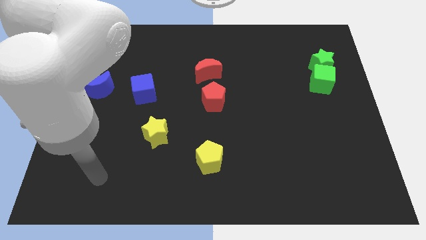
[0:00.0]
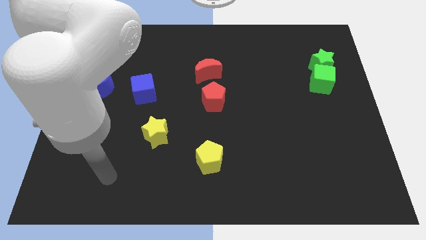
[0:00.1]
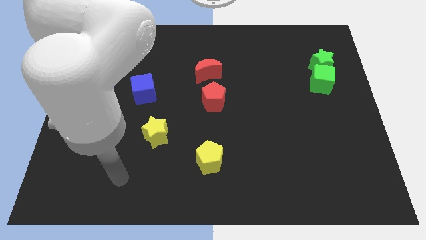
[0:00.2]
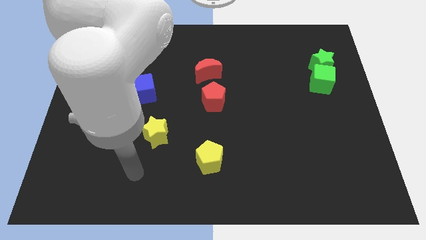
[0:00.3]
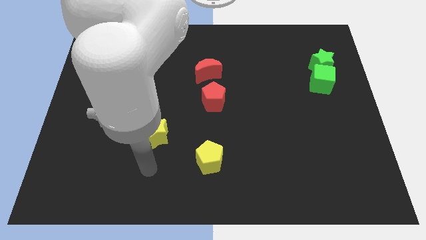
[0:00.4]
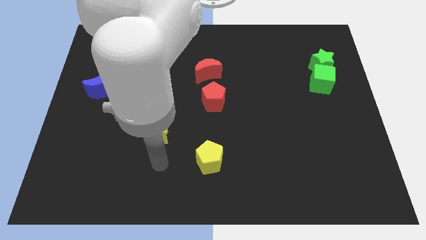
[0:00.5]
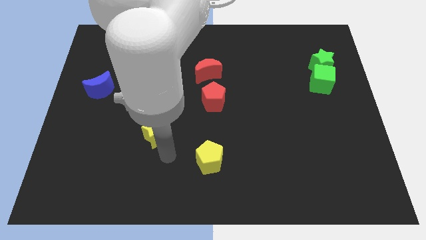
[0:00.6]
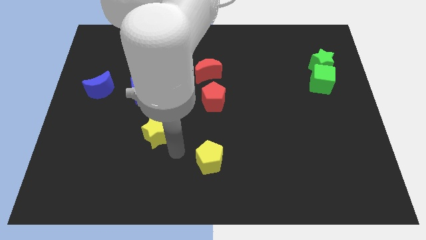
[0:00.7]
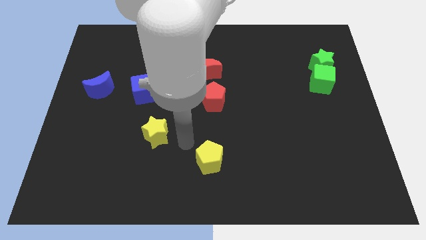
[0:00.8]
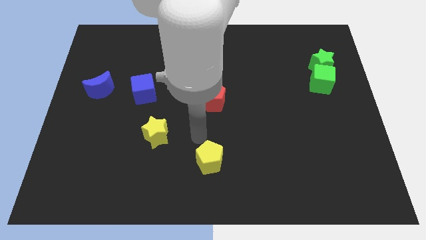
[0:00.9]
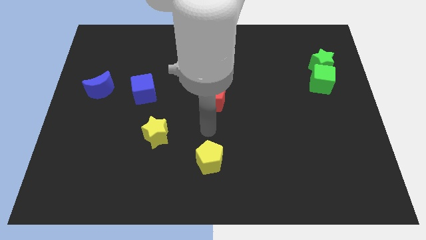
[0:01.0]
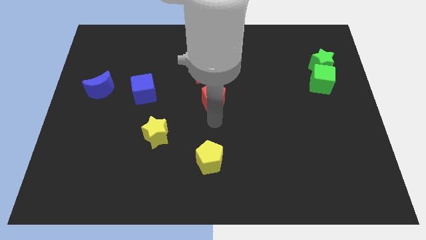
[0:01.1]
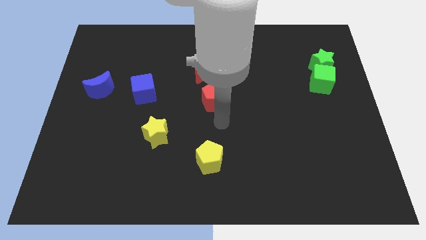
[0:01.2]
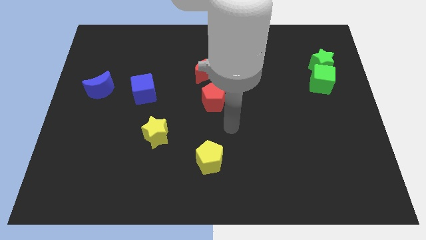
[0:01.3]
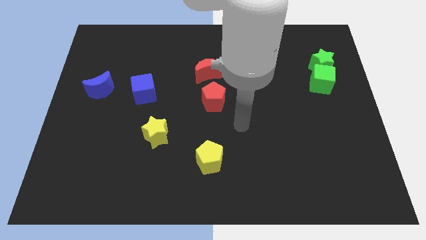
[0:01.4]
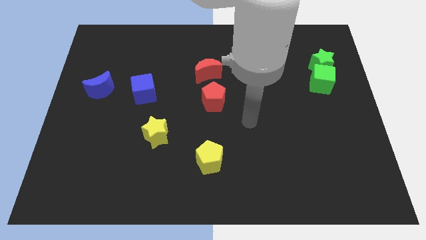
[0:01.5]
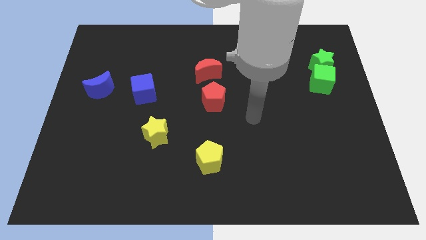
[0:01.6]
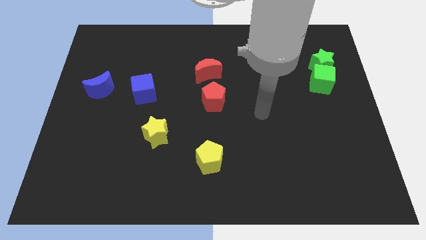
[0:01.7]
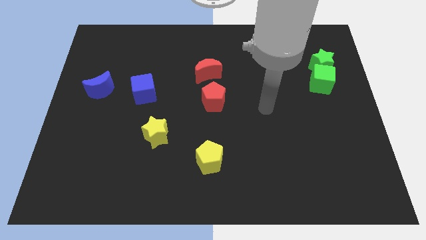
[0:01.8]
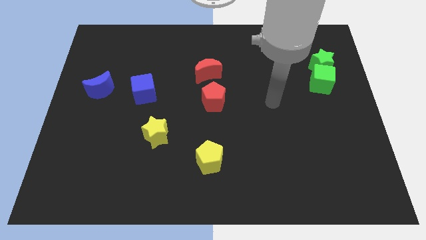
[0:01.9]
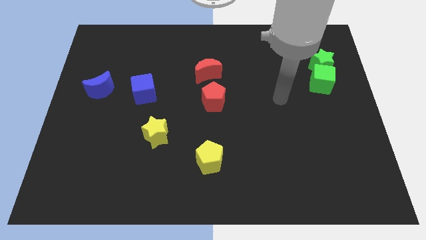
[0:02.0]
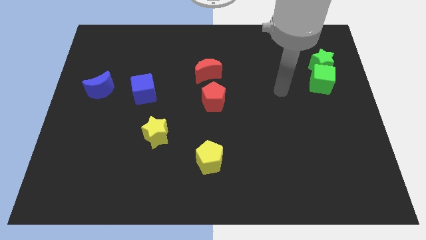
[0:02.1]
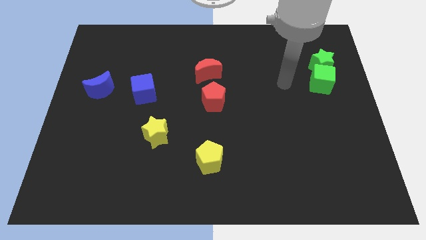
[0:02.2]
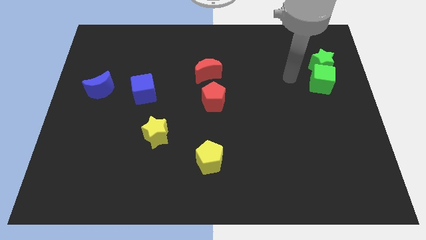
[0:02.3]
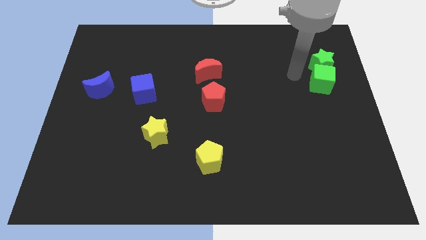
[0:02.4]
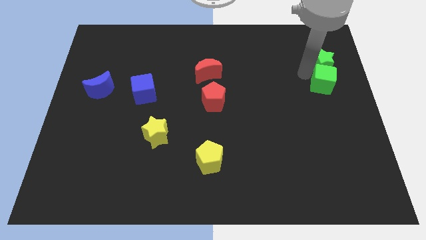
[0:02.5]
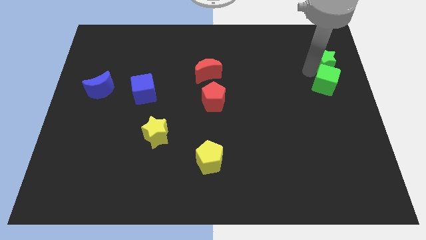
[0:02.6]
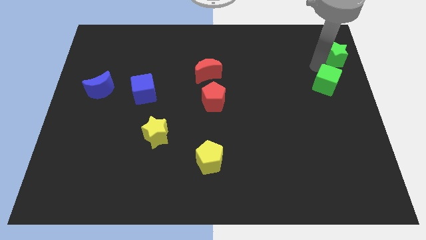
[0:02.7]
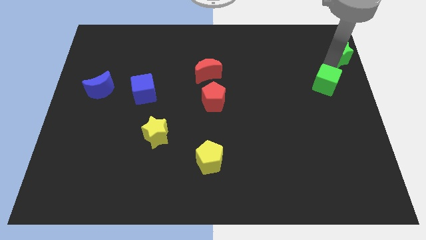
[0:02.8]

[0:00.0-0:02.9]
move the green cube away from the green star

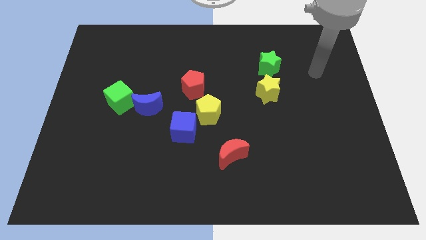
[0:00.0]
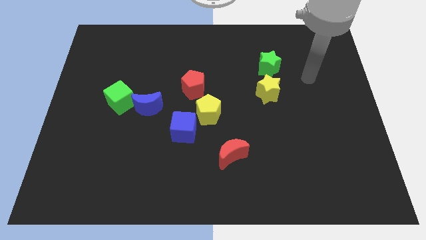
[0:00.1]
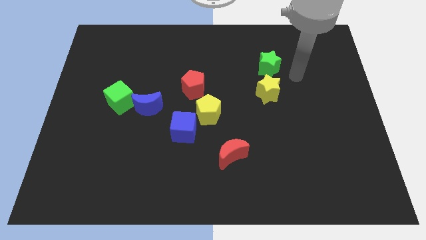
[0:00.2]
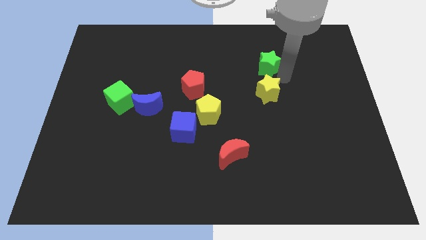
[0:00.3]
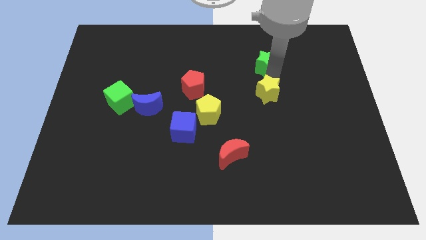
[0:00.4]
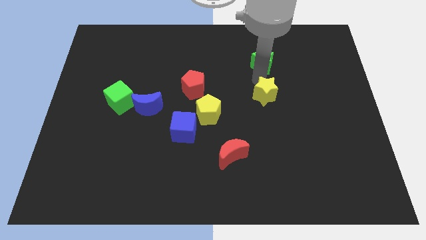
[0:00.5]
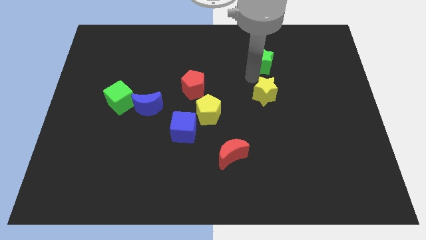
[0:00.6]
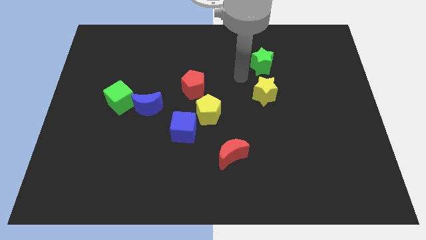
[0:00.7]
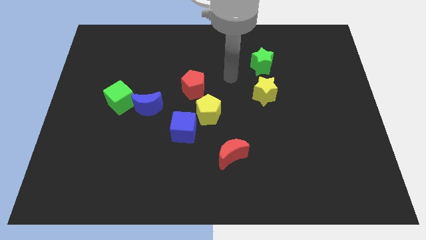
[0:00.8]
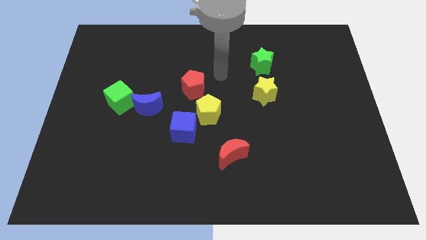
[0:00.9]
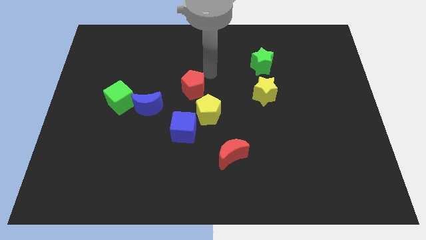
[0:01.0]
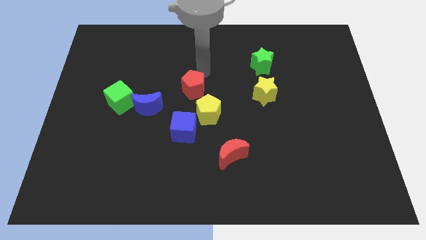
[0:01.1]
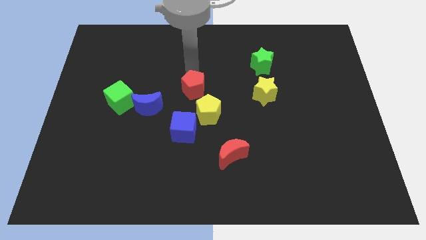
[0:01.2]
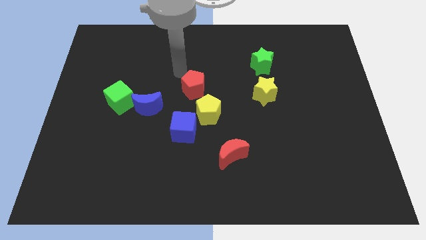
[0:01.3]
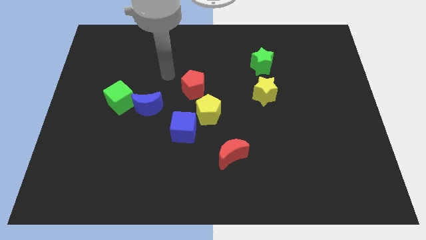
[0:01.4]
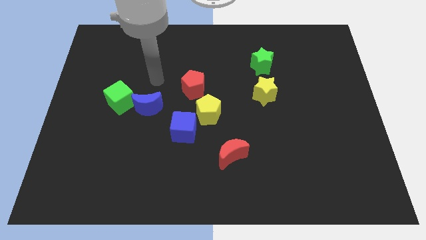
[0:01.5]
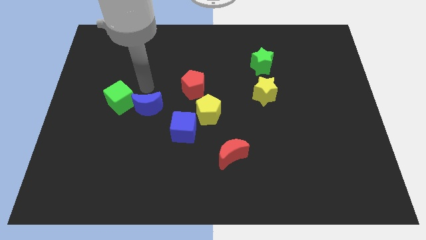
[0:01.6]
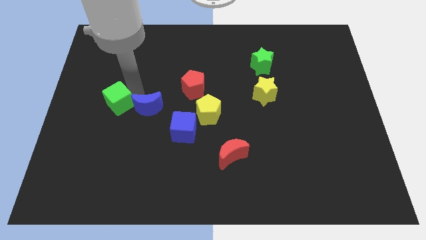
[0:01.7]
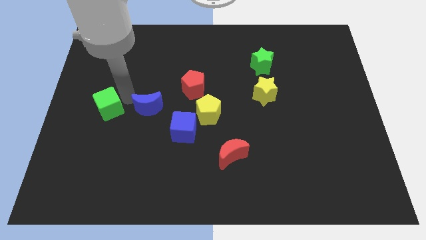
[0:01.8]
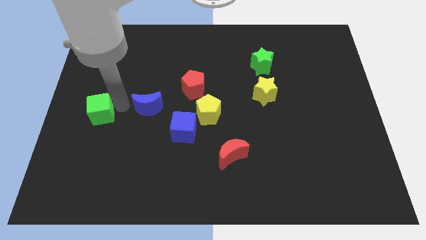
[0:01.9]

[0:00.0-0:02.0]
move the blue moon away from the green cube

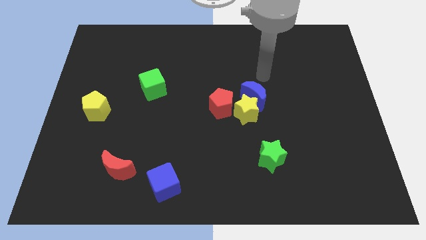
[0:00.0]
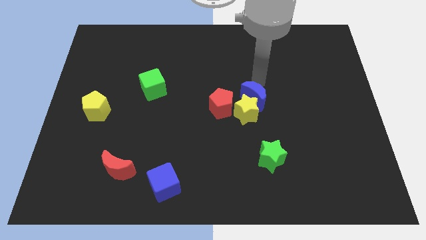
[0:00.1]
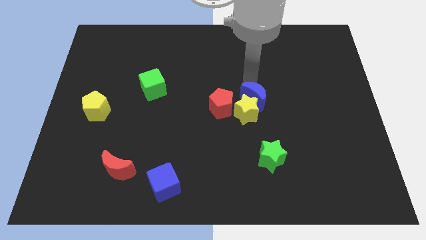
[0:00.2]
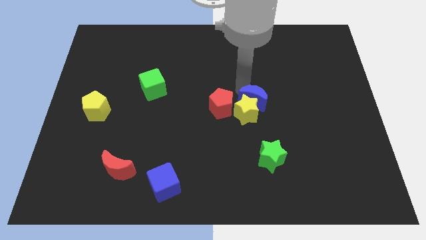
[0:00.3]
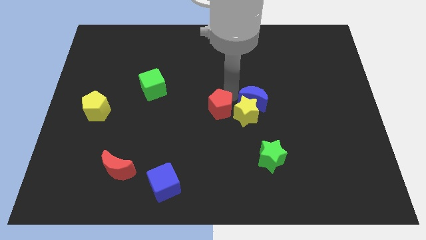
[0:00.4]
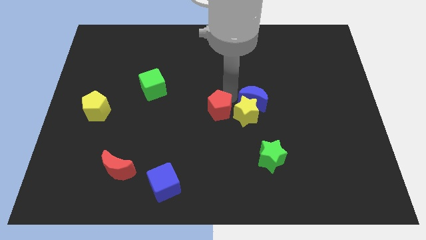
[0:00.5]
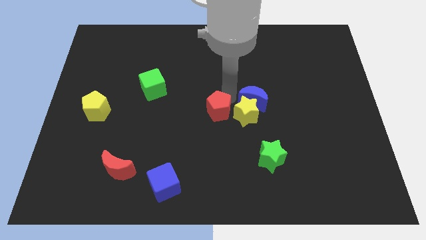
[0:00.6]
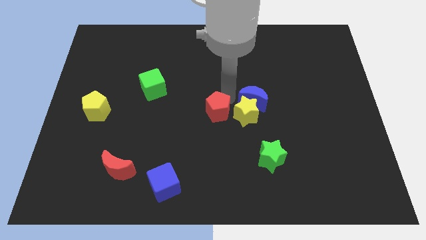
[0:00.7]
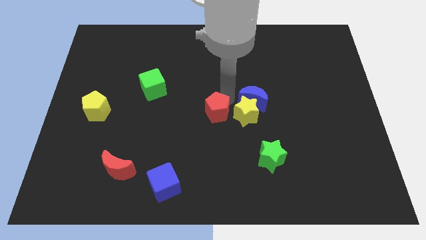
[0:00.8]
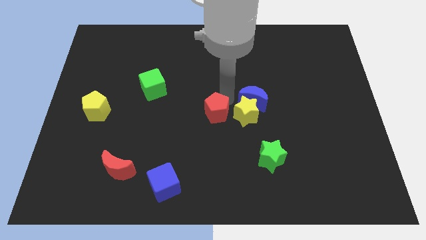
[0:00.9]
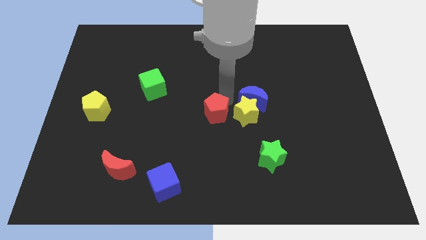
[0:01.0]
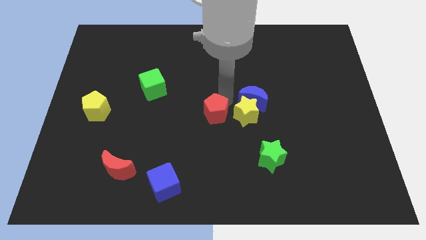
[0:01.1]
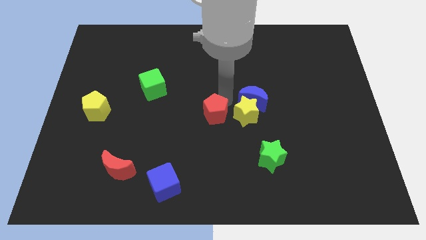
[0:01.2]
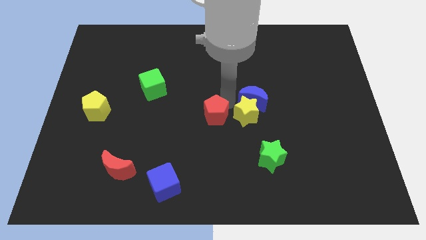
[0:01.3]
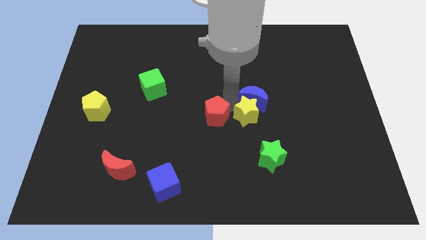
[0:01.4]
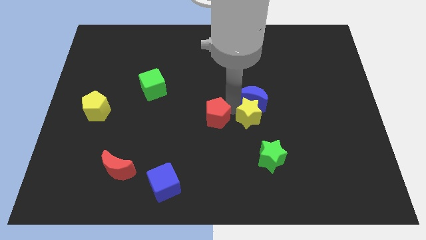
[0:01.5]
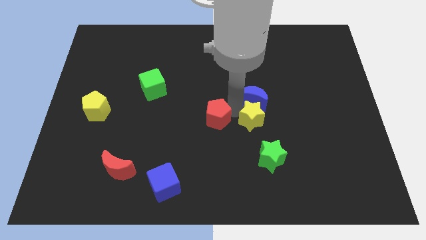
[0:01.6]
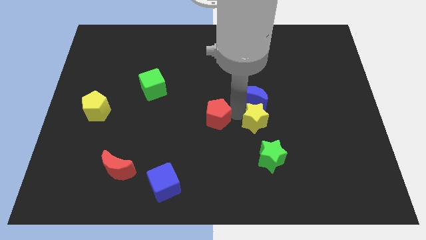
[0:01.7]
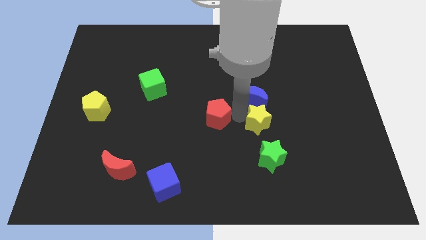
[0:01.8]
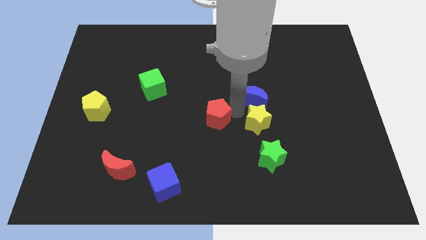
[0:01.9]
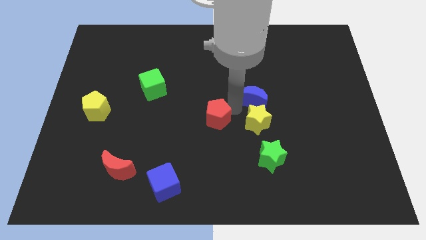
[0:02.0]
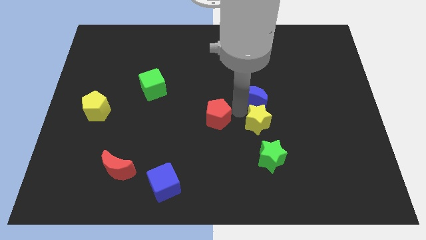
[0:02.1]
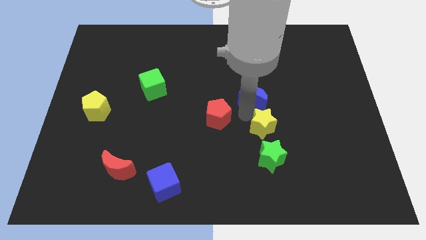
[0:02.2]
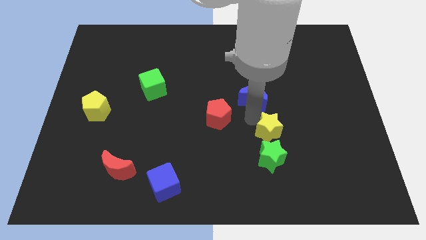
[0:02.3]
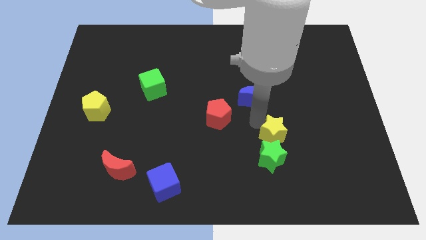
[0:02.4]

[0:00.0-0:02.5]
pull the yellow star apart from the blue moon and red pentagon

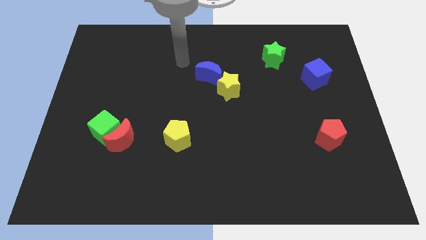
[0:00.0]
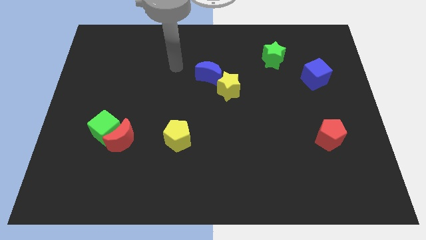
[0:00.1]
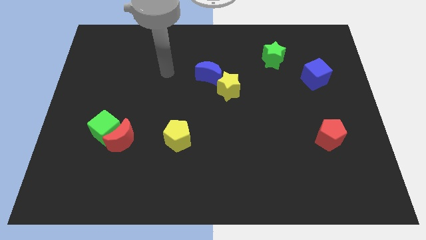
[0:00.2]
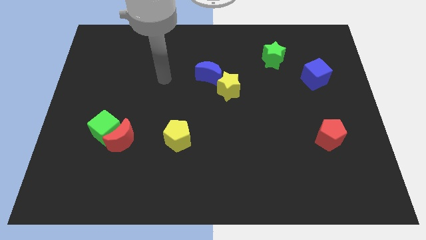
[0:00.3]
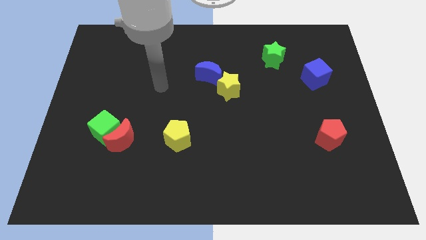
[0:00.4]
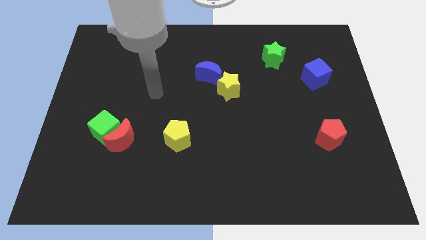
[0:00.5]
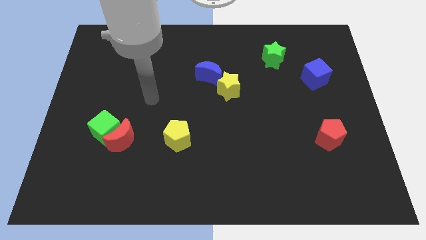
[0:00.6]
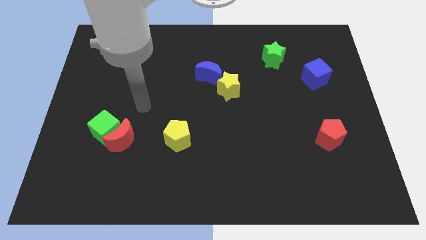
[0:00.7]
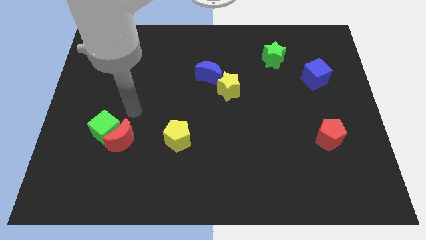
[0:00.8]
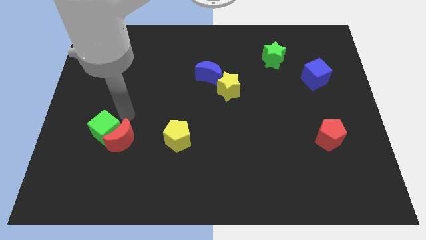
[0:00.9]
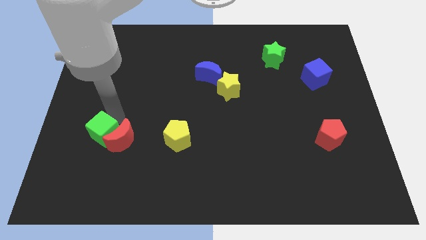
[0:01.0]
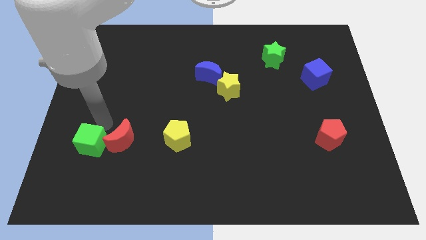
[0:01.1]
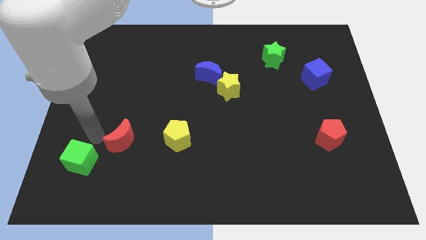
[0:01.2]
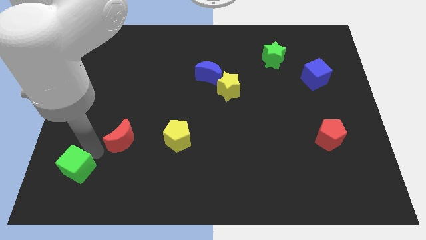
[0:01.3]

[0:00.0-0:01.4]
move the red moon away from the green cube

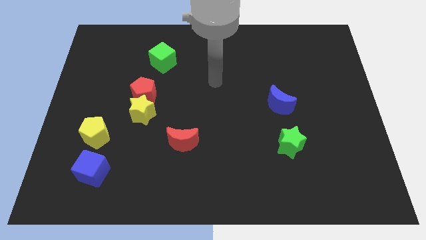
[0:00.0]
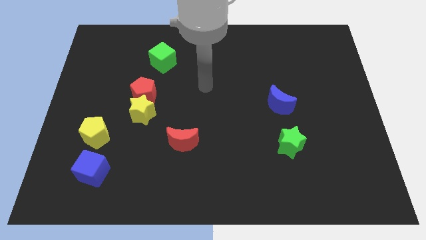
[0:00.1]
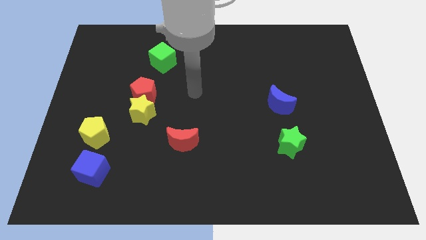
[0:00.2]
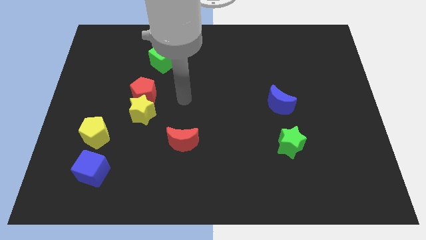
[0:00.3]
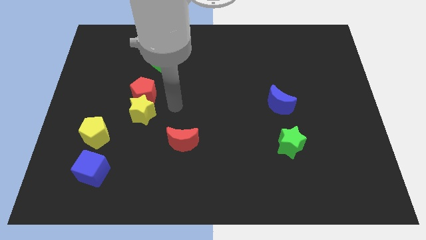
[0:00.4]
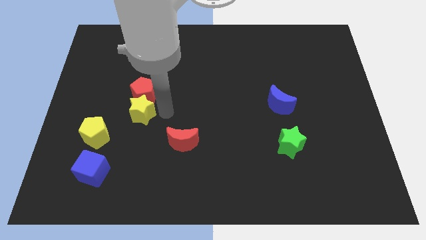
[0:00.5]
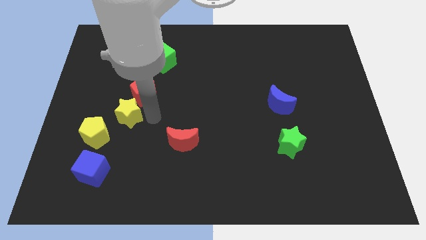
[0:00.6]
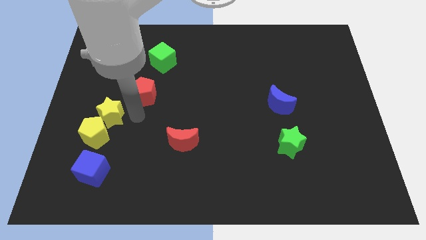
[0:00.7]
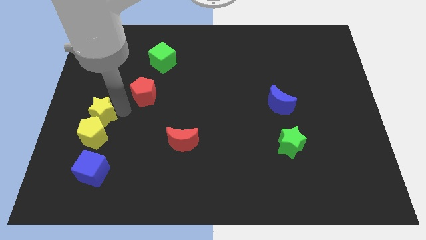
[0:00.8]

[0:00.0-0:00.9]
separate the red pentagon from the yellow star
